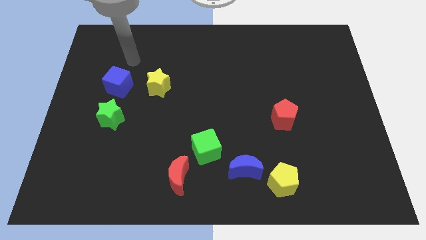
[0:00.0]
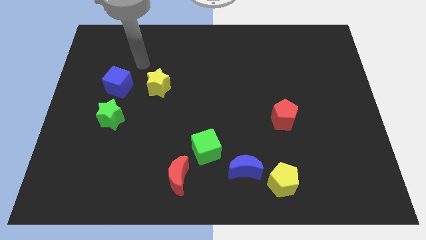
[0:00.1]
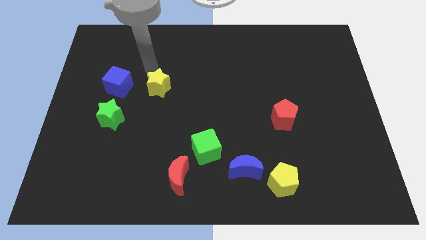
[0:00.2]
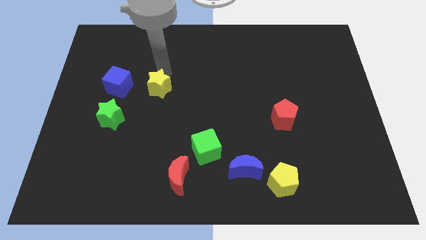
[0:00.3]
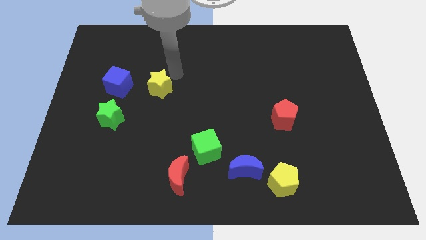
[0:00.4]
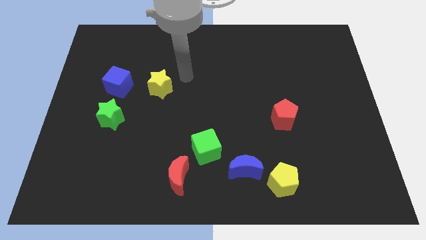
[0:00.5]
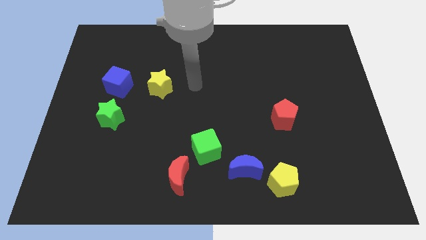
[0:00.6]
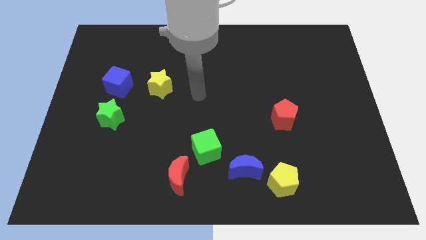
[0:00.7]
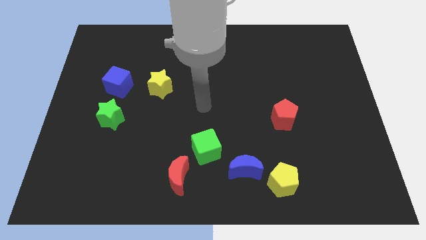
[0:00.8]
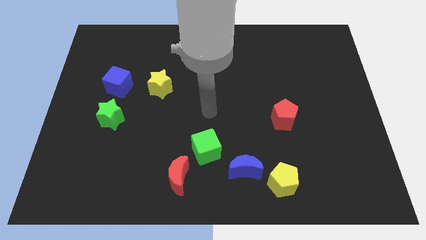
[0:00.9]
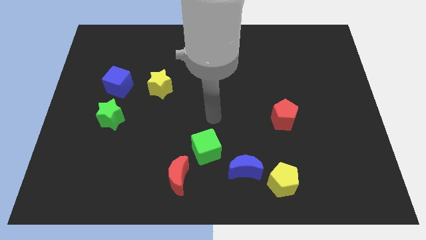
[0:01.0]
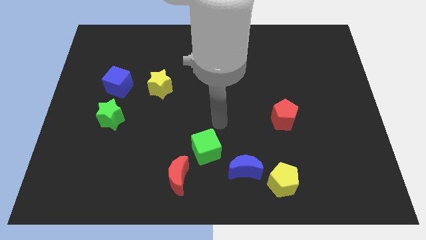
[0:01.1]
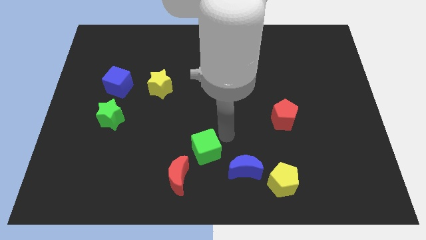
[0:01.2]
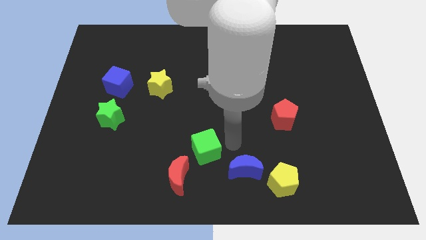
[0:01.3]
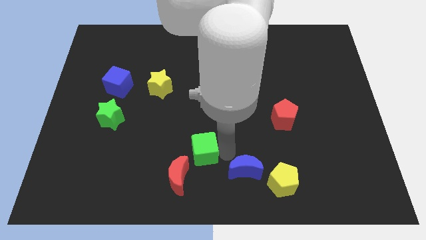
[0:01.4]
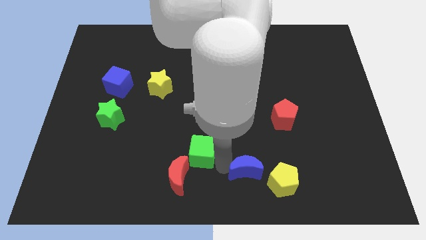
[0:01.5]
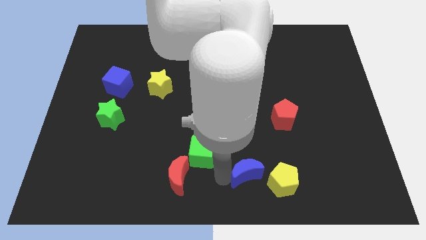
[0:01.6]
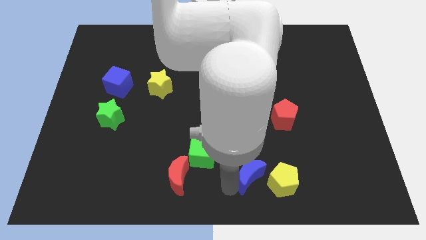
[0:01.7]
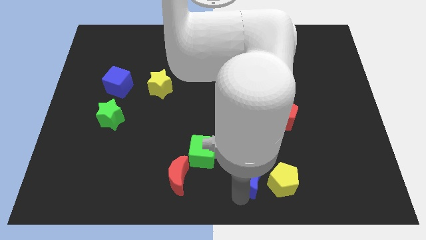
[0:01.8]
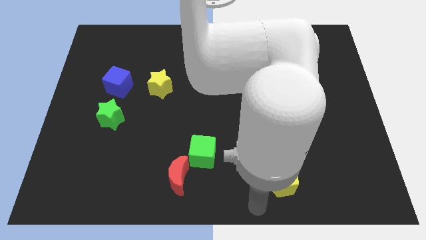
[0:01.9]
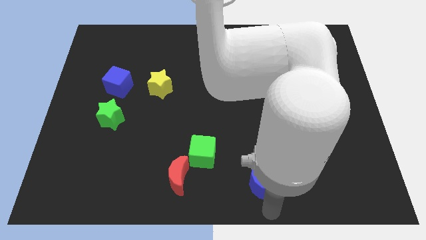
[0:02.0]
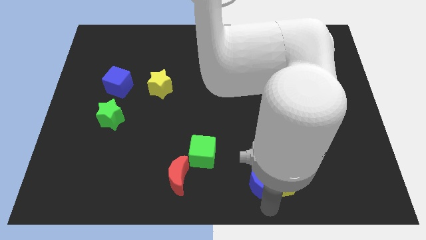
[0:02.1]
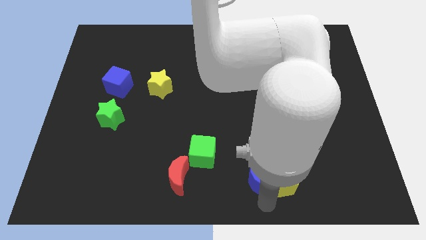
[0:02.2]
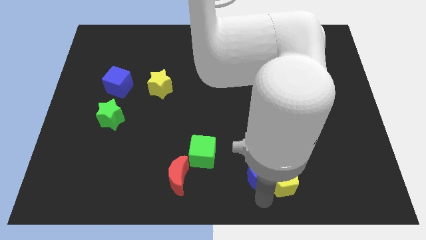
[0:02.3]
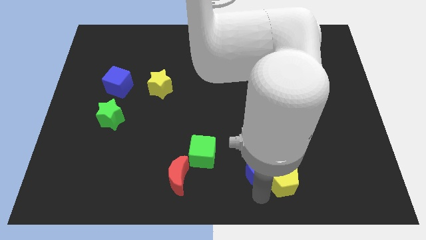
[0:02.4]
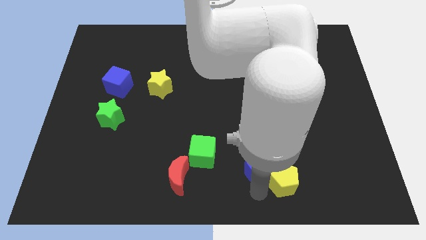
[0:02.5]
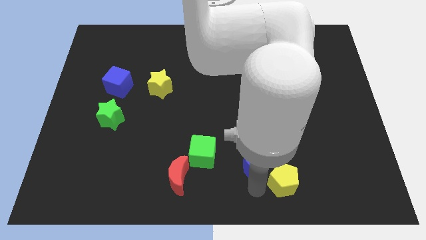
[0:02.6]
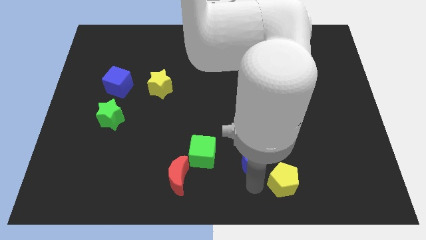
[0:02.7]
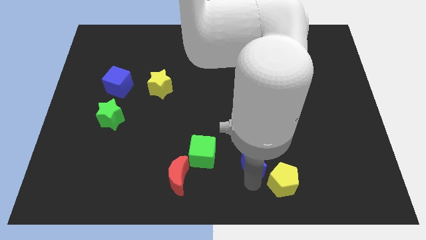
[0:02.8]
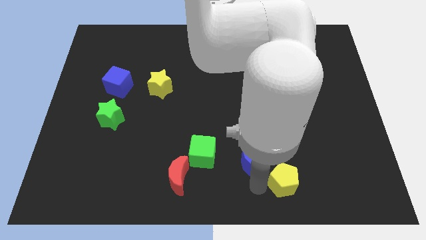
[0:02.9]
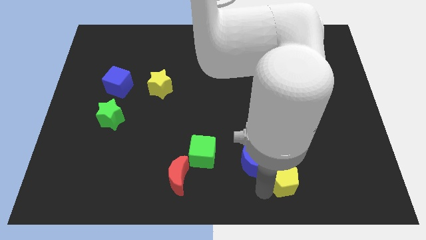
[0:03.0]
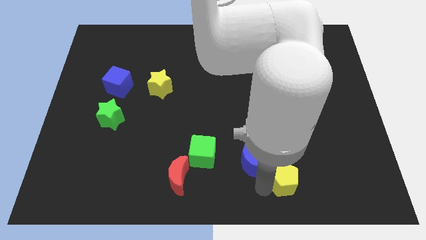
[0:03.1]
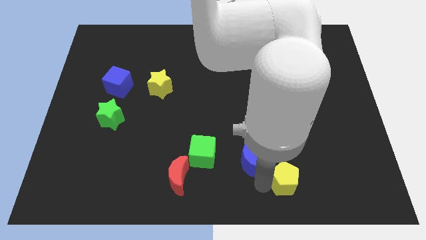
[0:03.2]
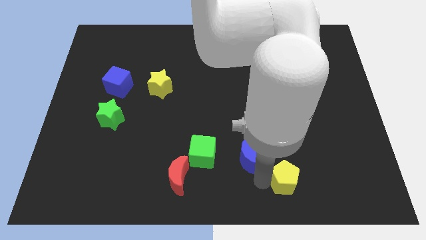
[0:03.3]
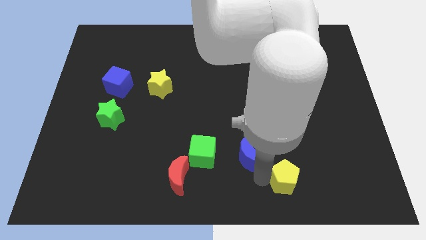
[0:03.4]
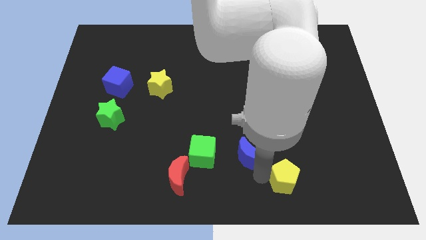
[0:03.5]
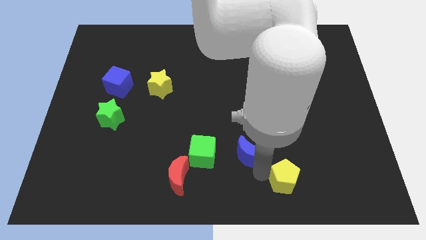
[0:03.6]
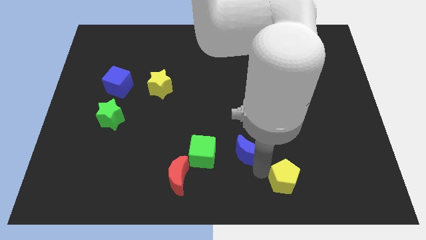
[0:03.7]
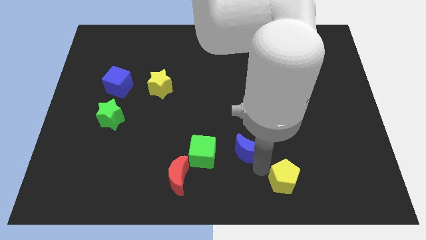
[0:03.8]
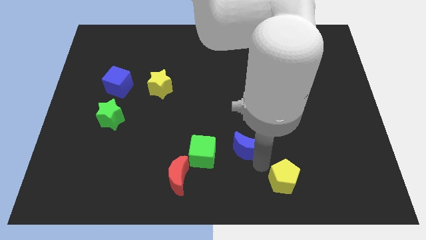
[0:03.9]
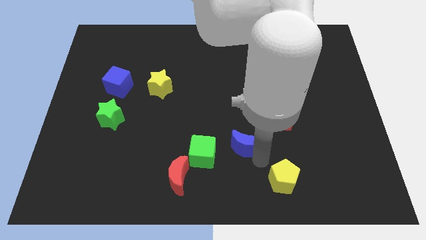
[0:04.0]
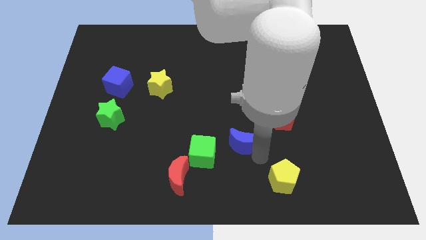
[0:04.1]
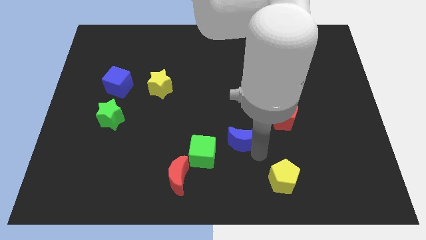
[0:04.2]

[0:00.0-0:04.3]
push the blue moon upwards a bit

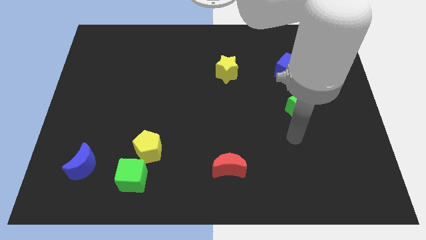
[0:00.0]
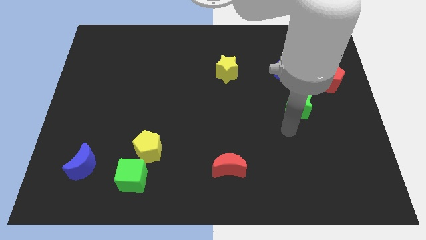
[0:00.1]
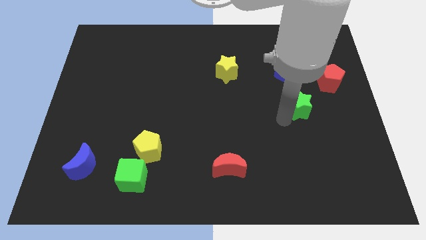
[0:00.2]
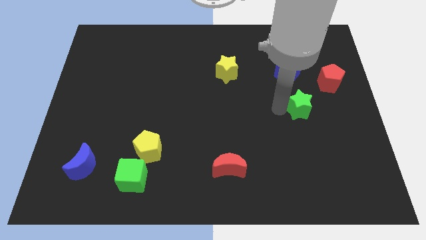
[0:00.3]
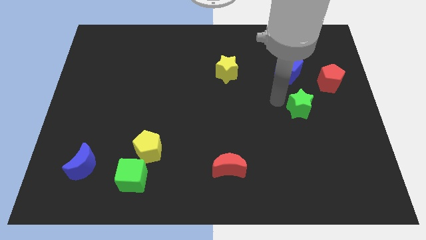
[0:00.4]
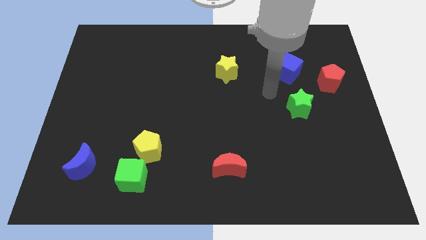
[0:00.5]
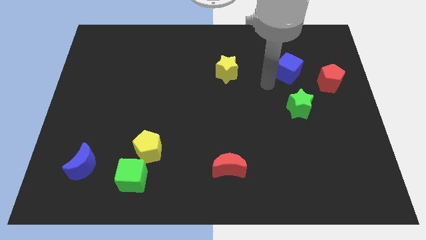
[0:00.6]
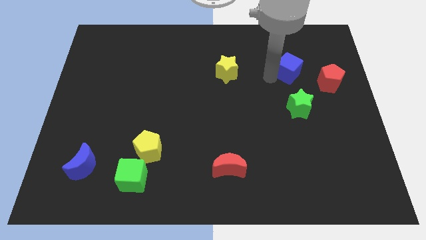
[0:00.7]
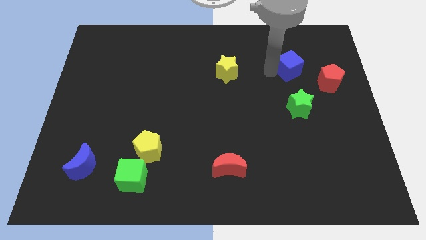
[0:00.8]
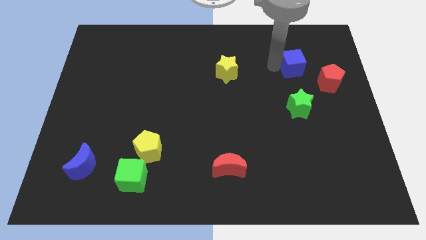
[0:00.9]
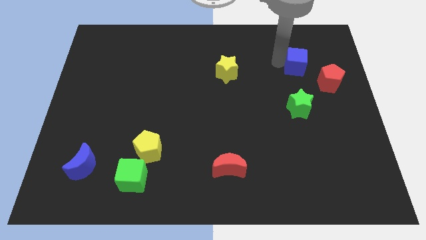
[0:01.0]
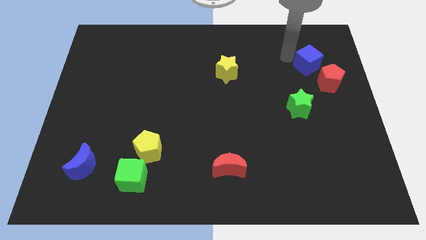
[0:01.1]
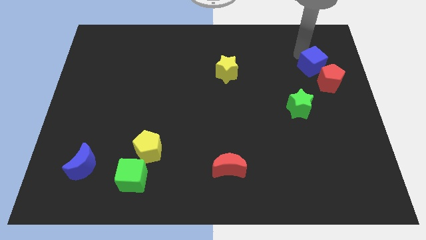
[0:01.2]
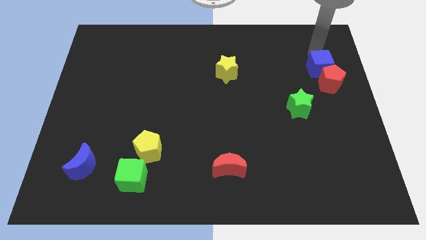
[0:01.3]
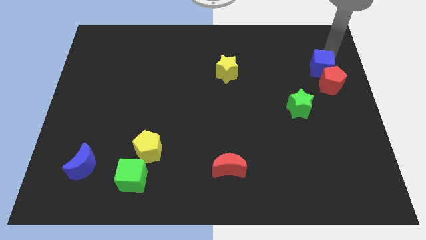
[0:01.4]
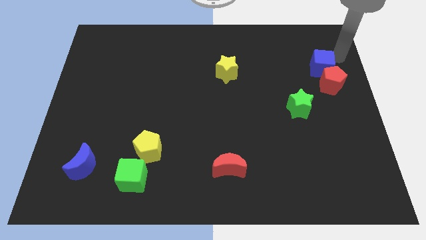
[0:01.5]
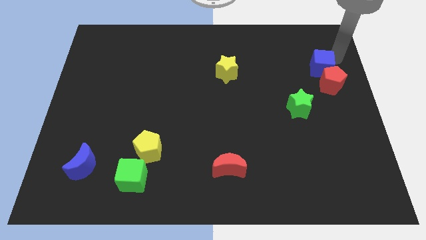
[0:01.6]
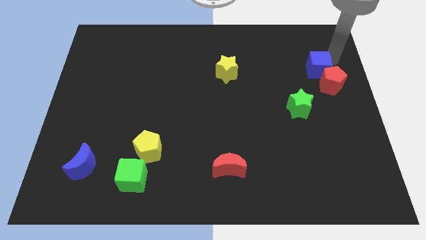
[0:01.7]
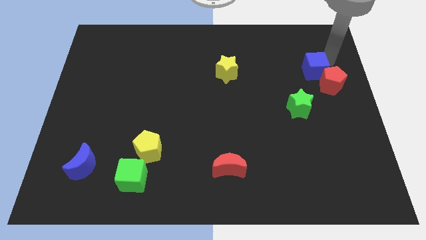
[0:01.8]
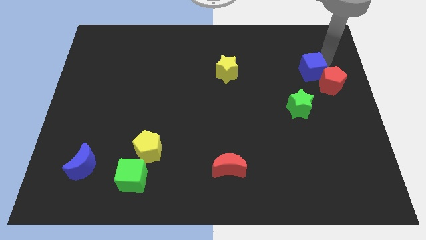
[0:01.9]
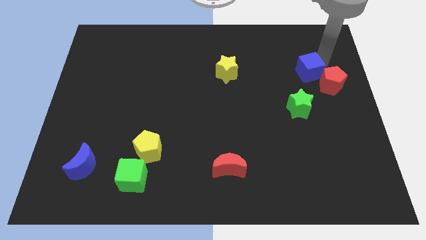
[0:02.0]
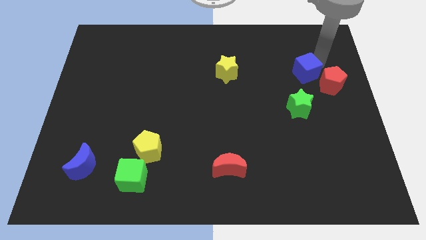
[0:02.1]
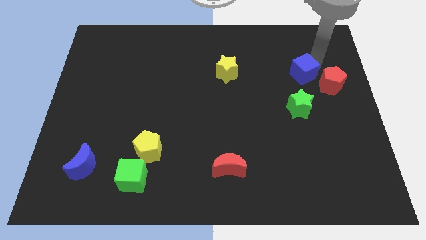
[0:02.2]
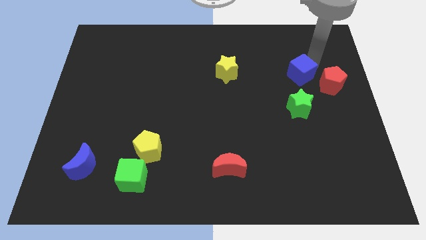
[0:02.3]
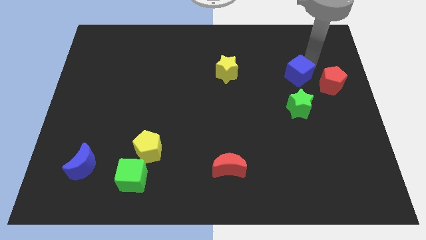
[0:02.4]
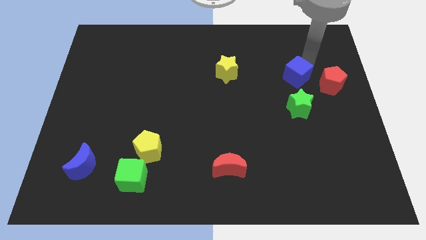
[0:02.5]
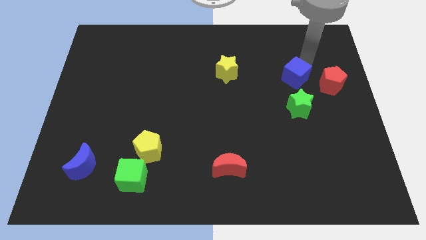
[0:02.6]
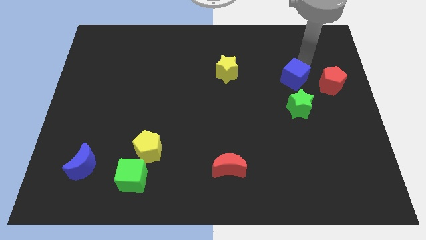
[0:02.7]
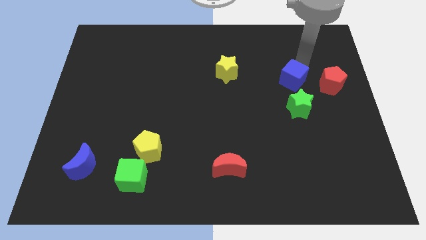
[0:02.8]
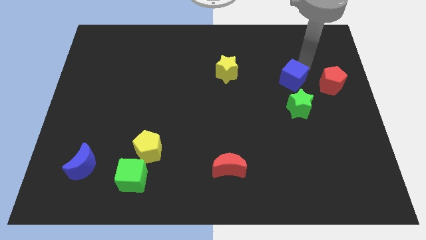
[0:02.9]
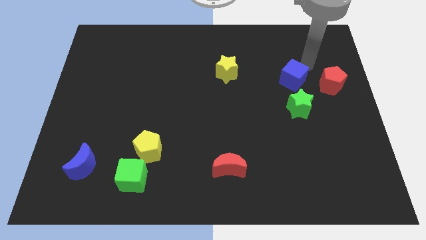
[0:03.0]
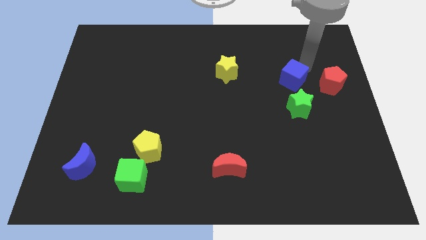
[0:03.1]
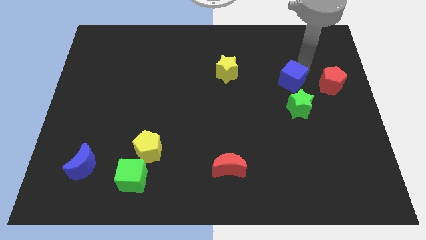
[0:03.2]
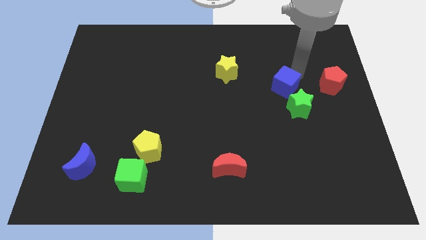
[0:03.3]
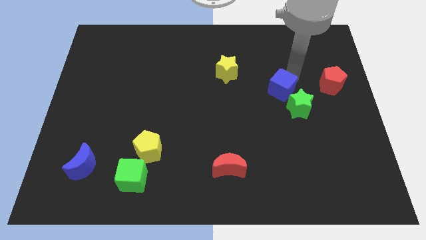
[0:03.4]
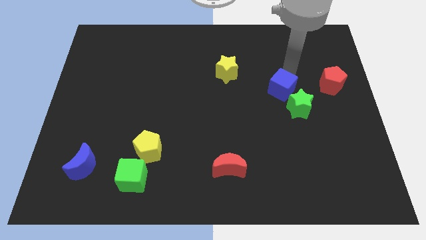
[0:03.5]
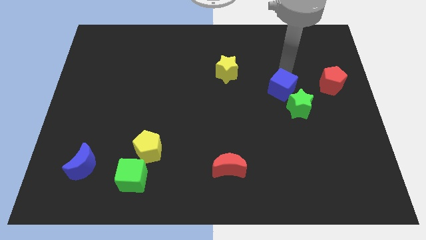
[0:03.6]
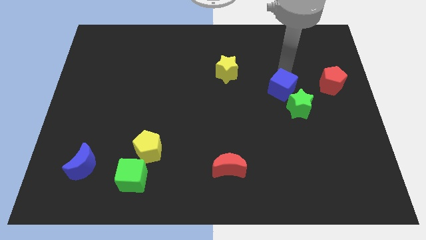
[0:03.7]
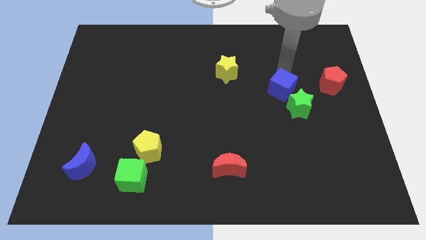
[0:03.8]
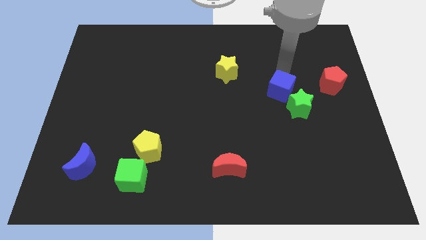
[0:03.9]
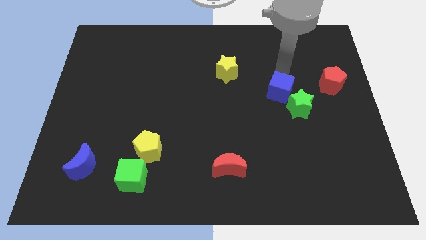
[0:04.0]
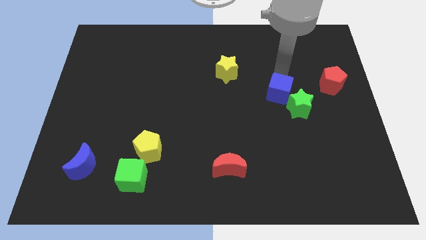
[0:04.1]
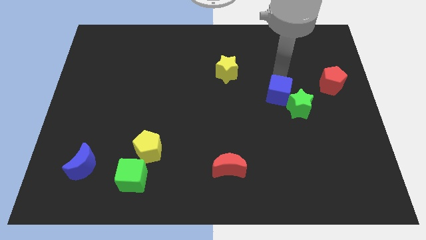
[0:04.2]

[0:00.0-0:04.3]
push the blue cube downwards somewhat
